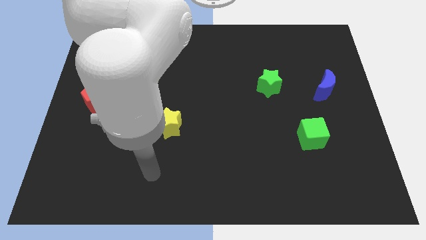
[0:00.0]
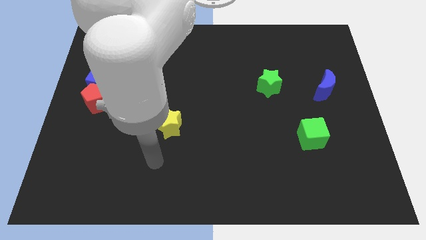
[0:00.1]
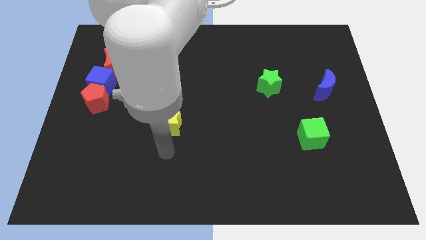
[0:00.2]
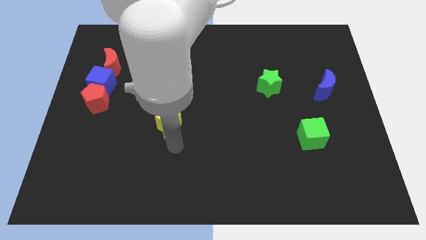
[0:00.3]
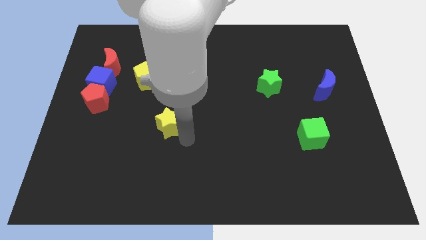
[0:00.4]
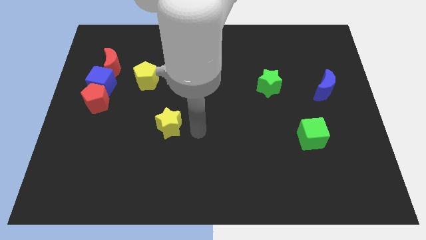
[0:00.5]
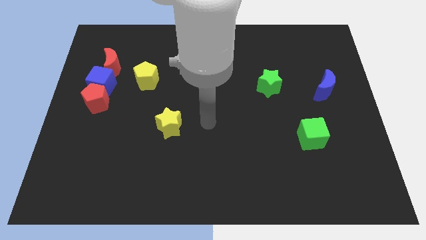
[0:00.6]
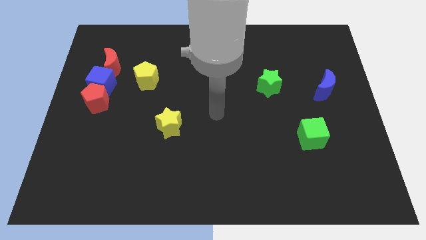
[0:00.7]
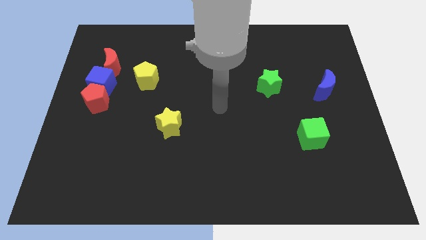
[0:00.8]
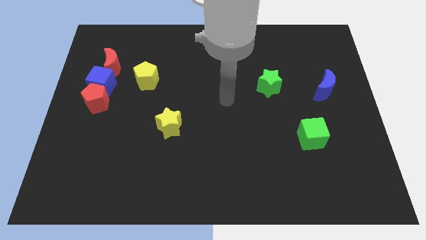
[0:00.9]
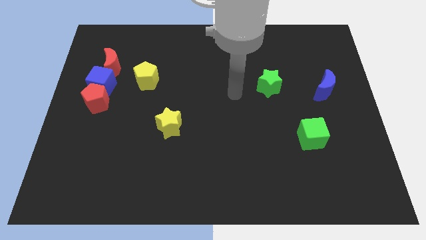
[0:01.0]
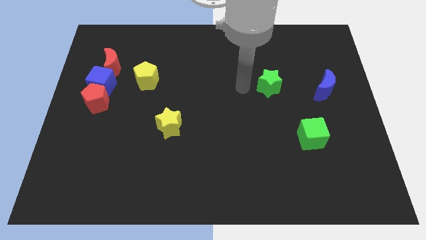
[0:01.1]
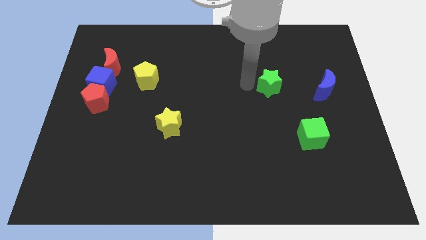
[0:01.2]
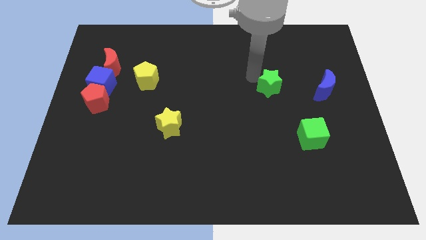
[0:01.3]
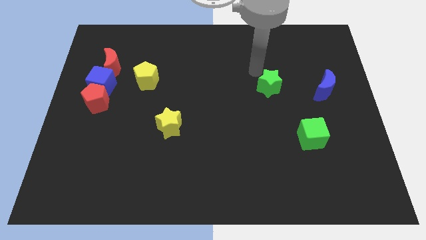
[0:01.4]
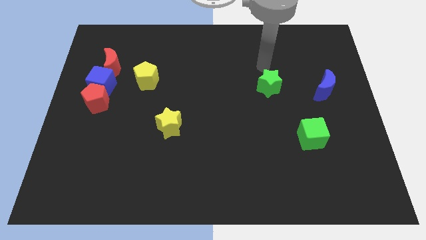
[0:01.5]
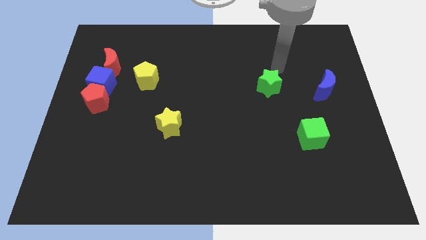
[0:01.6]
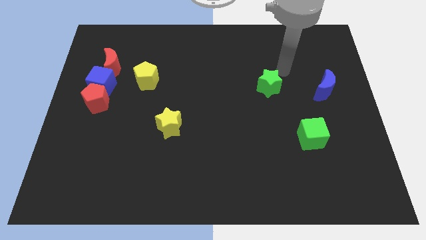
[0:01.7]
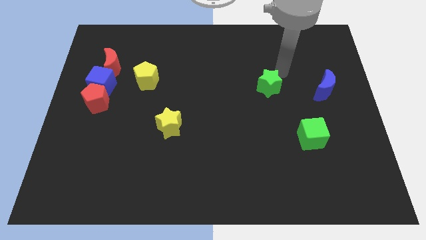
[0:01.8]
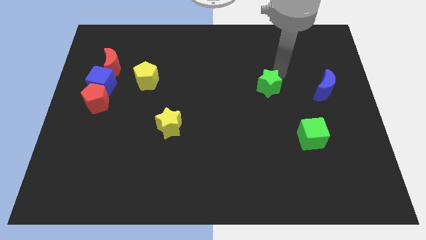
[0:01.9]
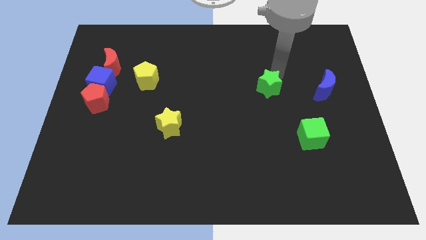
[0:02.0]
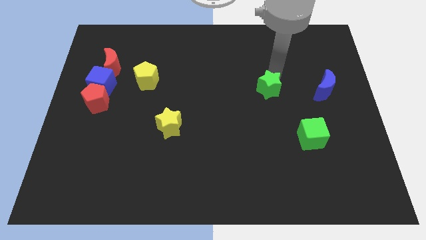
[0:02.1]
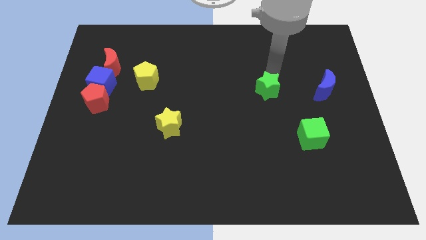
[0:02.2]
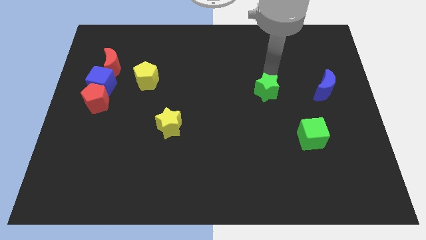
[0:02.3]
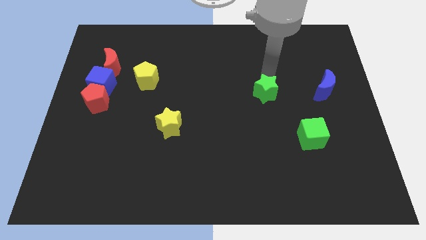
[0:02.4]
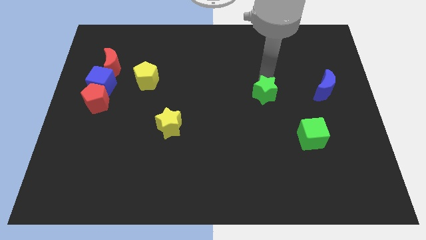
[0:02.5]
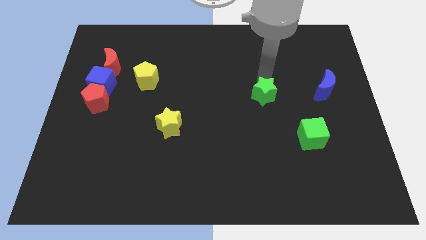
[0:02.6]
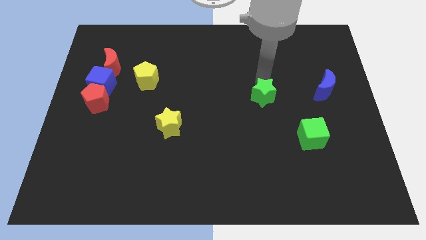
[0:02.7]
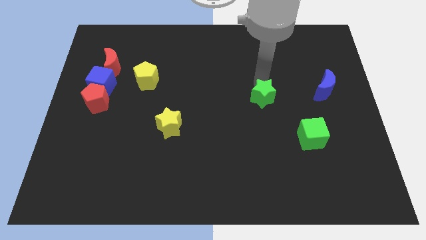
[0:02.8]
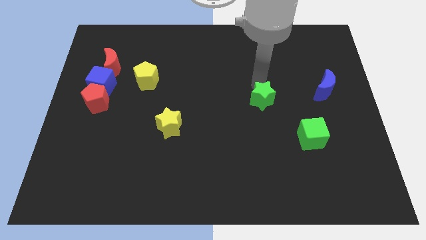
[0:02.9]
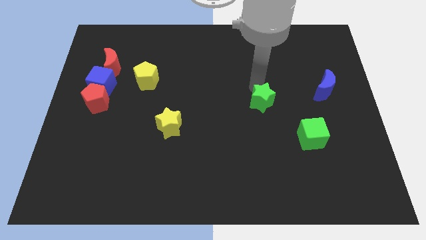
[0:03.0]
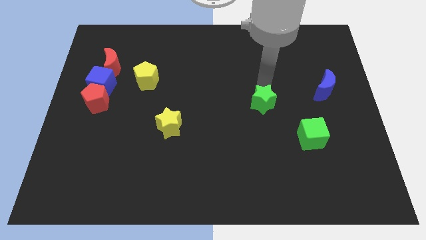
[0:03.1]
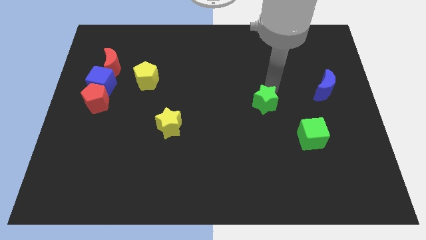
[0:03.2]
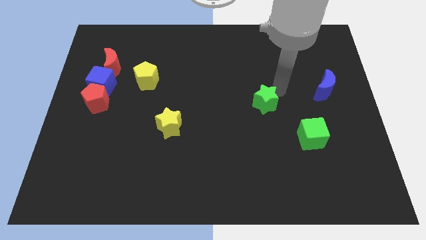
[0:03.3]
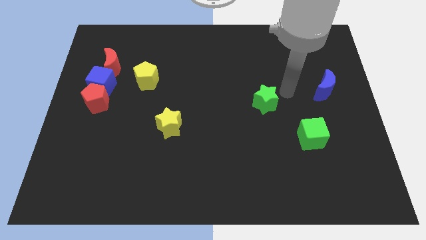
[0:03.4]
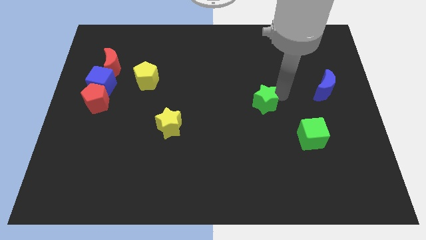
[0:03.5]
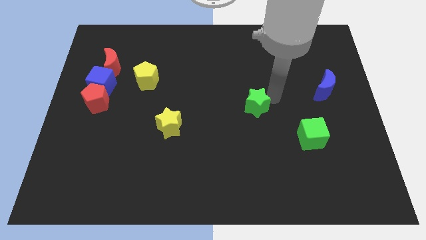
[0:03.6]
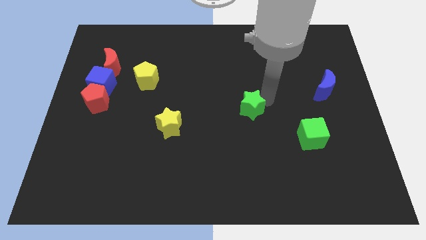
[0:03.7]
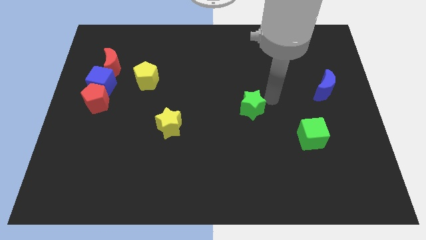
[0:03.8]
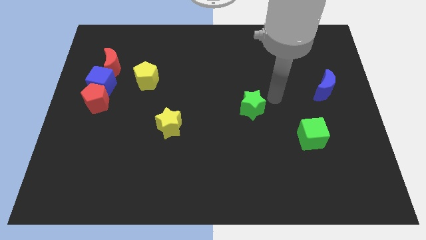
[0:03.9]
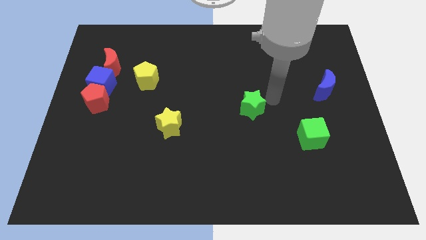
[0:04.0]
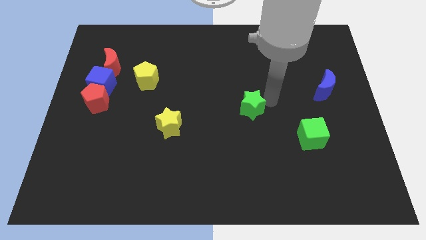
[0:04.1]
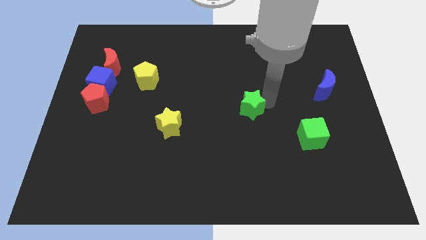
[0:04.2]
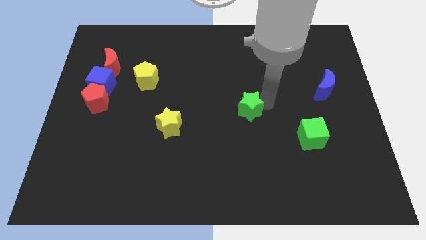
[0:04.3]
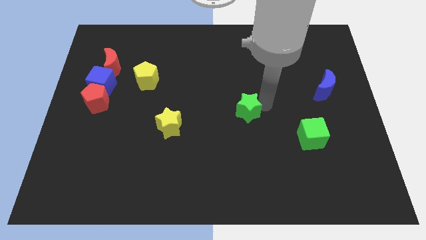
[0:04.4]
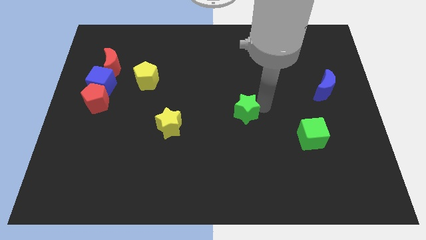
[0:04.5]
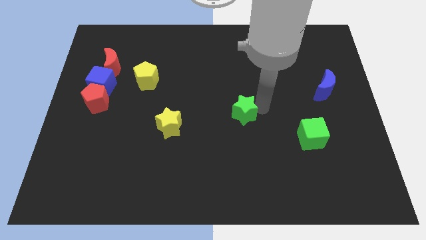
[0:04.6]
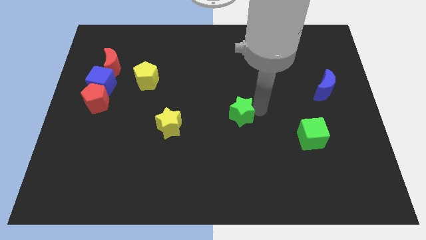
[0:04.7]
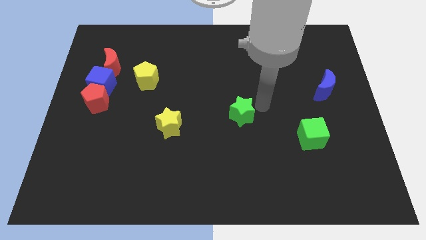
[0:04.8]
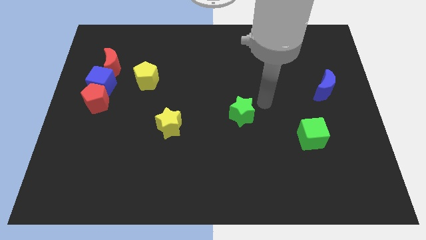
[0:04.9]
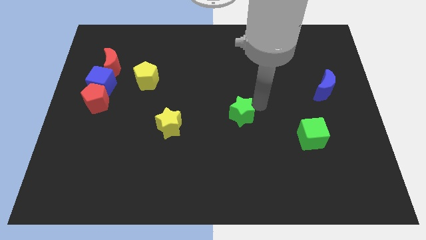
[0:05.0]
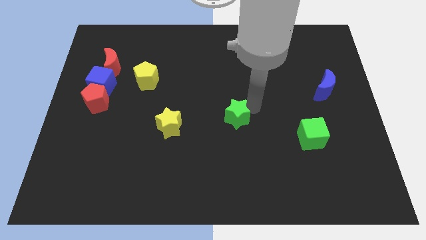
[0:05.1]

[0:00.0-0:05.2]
put the green star right of the yellow star
